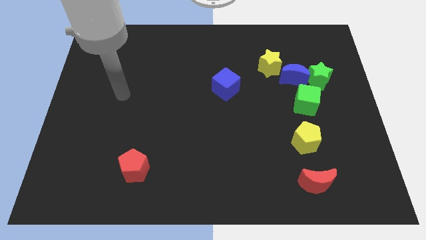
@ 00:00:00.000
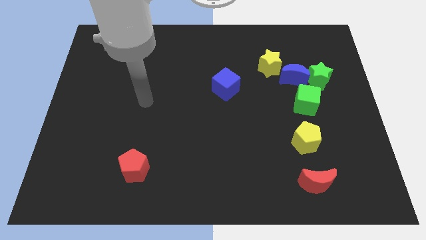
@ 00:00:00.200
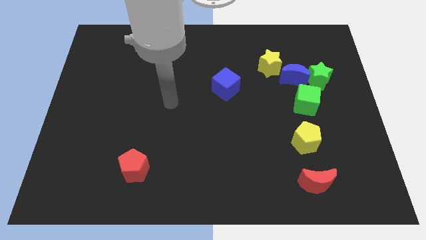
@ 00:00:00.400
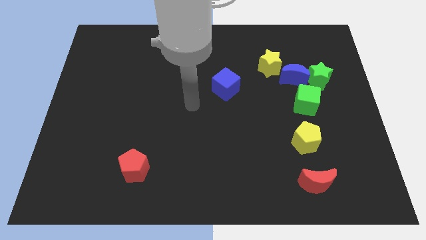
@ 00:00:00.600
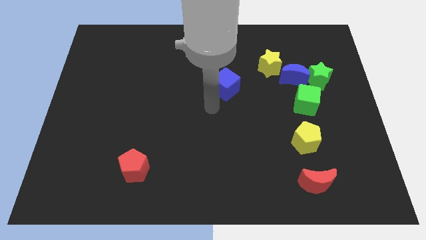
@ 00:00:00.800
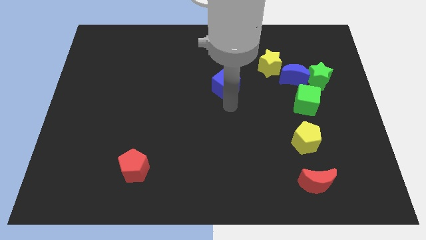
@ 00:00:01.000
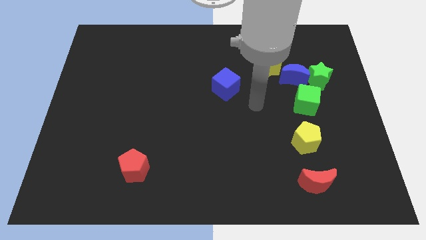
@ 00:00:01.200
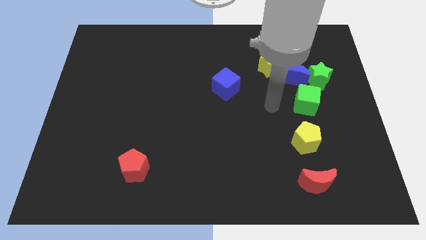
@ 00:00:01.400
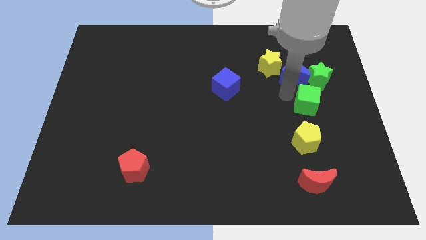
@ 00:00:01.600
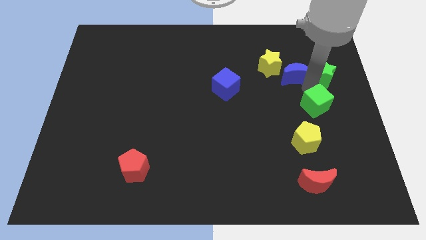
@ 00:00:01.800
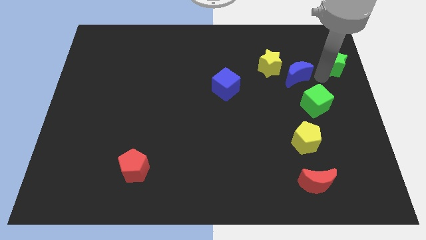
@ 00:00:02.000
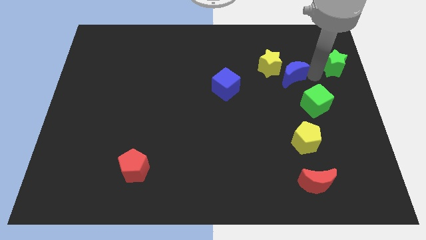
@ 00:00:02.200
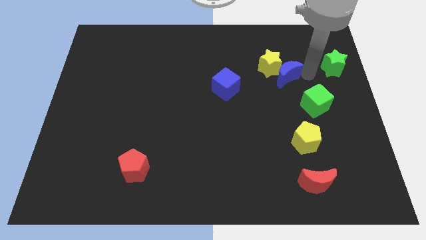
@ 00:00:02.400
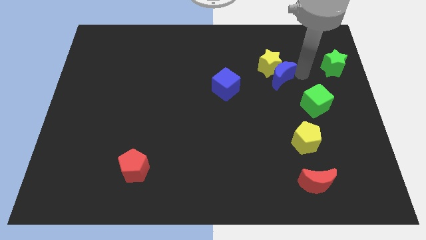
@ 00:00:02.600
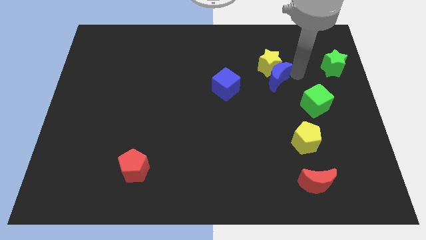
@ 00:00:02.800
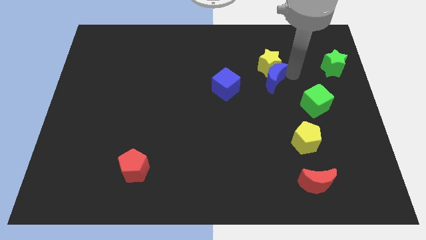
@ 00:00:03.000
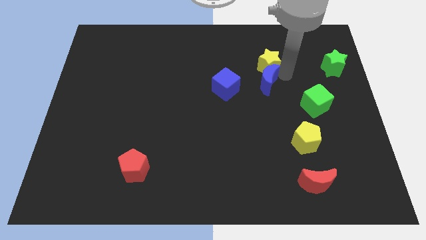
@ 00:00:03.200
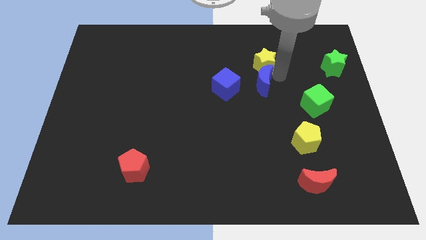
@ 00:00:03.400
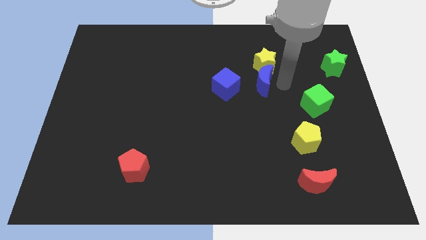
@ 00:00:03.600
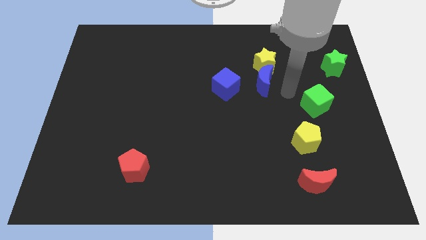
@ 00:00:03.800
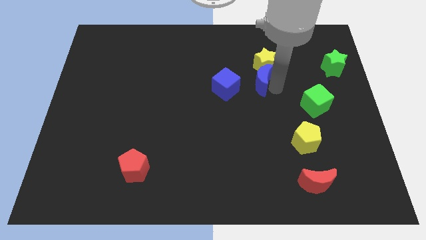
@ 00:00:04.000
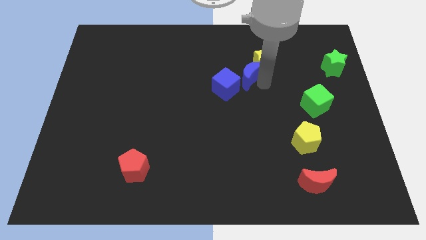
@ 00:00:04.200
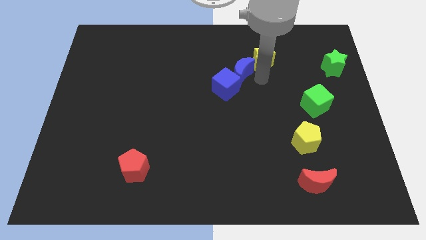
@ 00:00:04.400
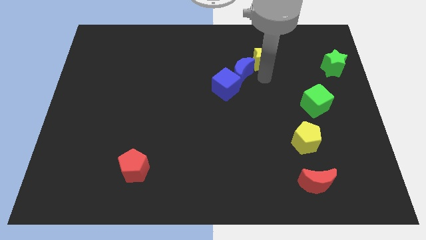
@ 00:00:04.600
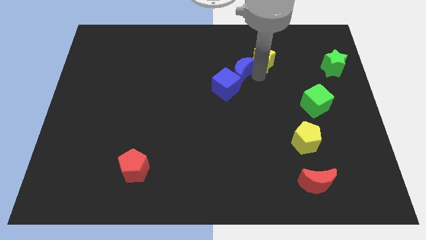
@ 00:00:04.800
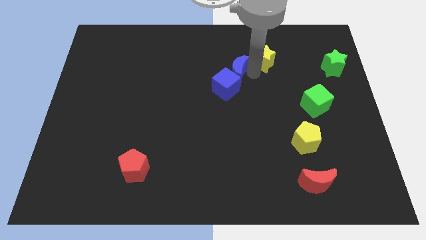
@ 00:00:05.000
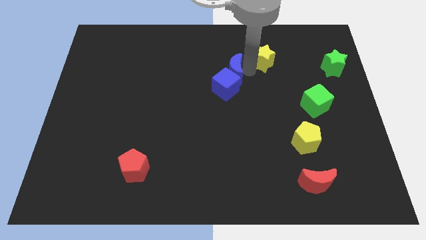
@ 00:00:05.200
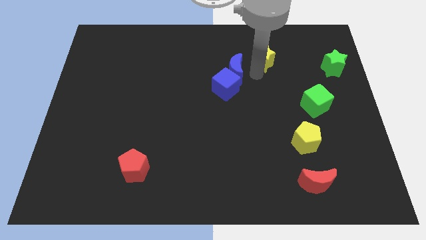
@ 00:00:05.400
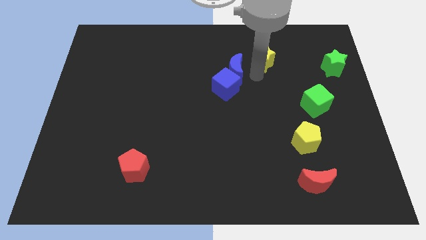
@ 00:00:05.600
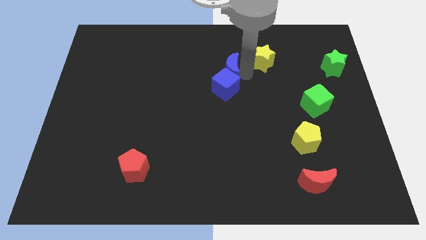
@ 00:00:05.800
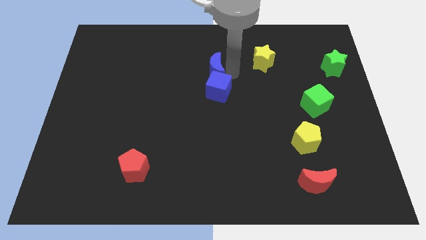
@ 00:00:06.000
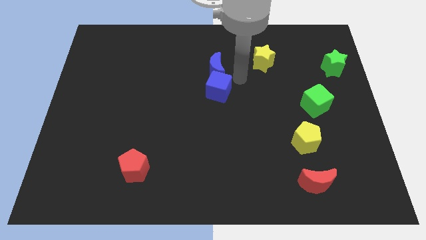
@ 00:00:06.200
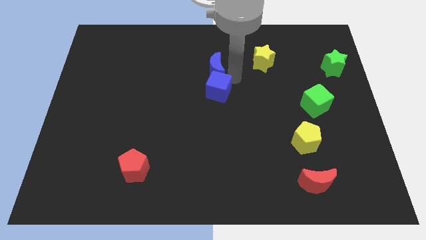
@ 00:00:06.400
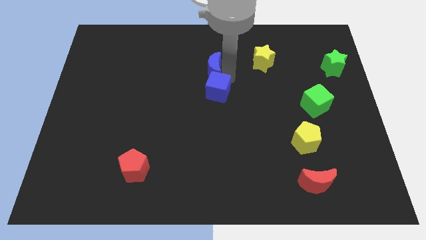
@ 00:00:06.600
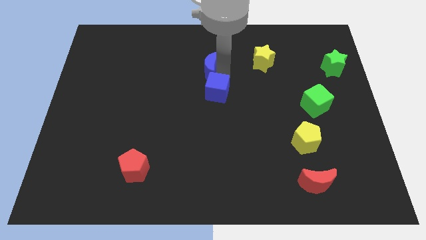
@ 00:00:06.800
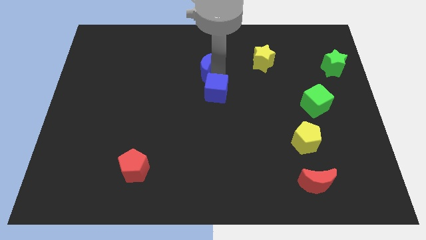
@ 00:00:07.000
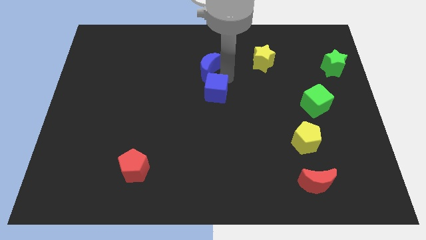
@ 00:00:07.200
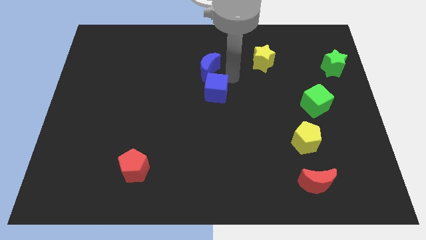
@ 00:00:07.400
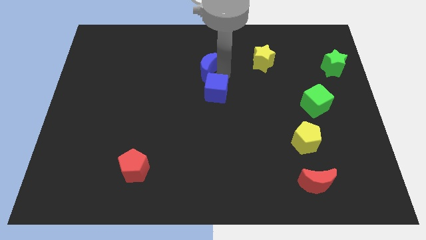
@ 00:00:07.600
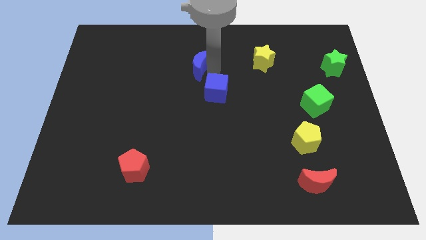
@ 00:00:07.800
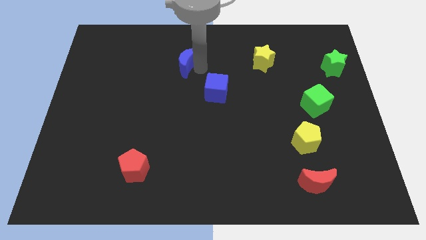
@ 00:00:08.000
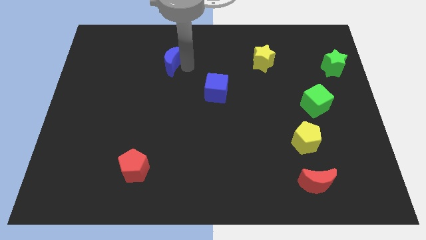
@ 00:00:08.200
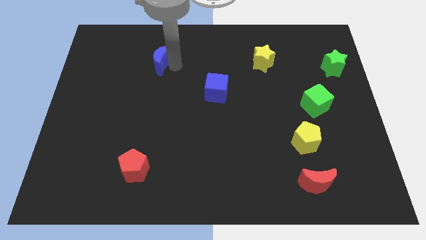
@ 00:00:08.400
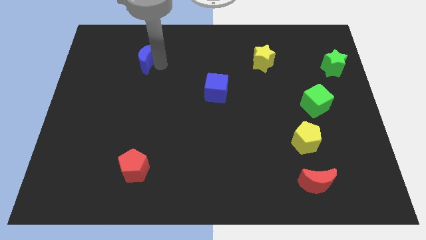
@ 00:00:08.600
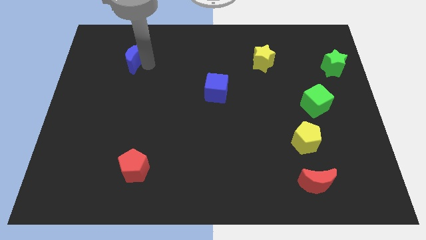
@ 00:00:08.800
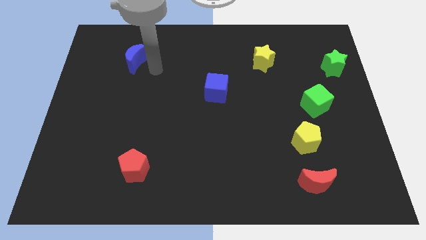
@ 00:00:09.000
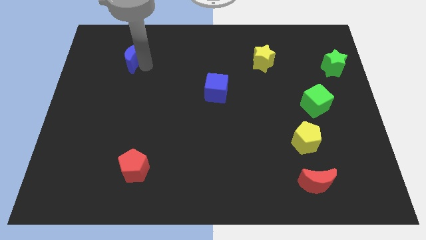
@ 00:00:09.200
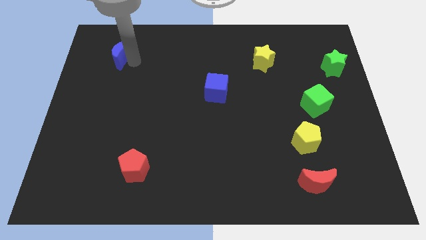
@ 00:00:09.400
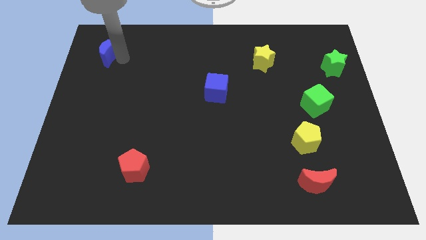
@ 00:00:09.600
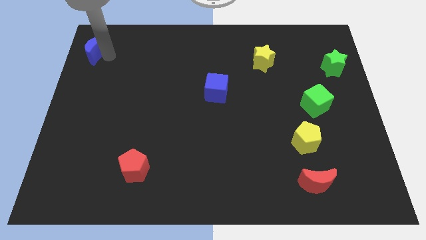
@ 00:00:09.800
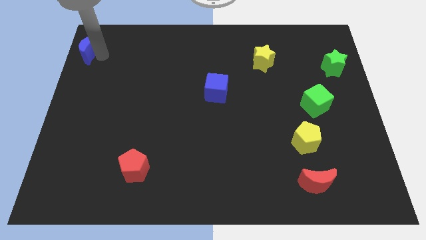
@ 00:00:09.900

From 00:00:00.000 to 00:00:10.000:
push the blue moon to the top left of the board

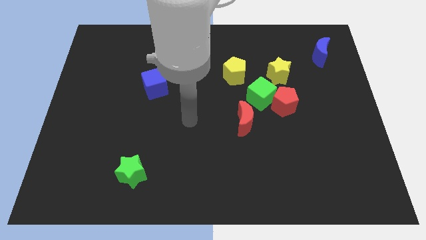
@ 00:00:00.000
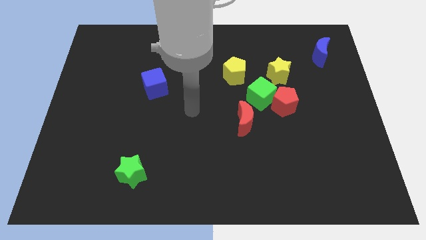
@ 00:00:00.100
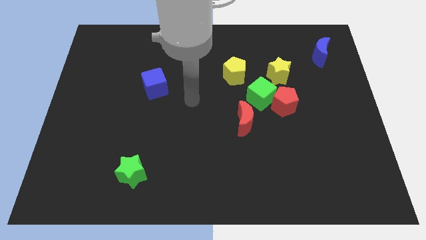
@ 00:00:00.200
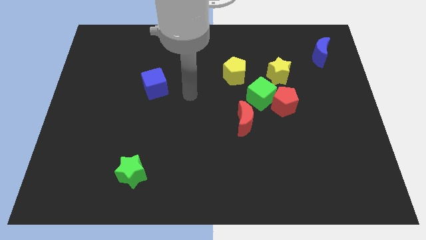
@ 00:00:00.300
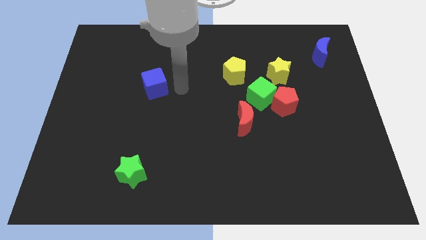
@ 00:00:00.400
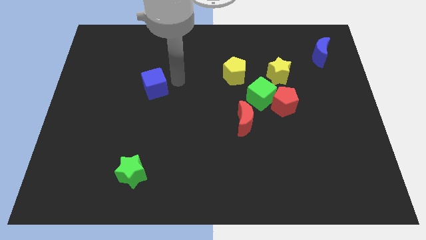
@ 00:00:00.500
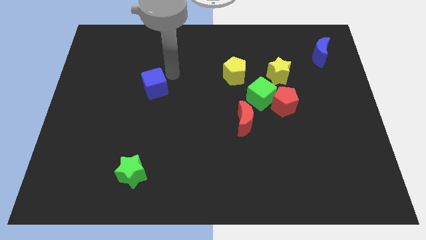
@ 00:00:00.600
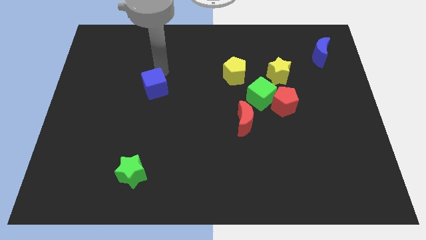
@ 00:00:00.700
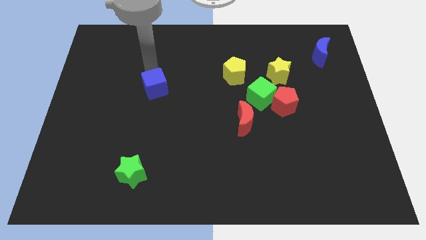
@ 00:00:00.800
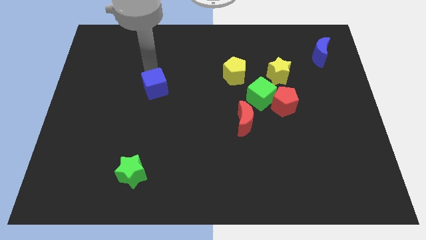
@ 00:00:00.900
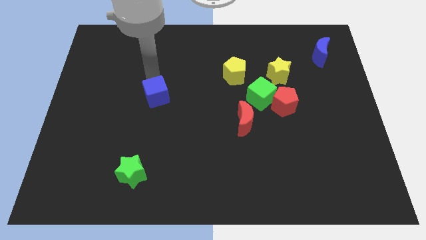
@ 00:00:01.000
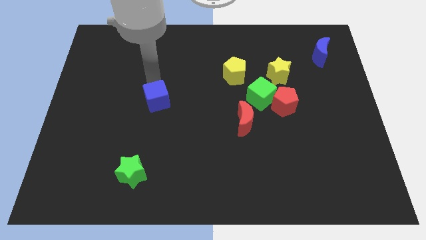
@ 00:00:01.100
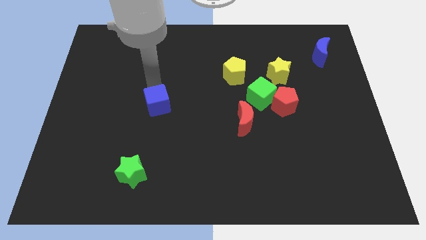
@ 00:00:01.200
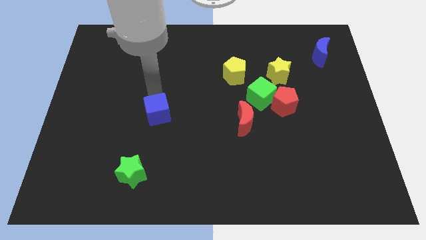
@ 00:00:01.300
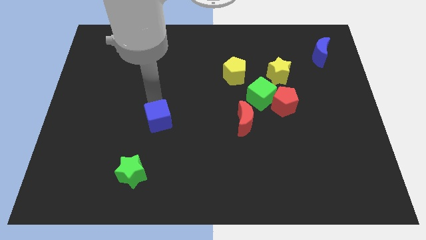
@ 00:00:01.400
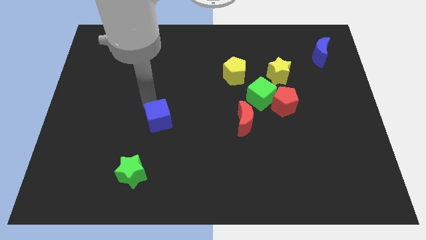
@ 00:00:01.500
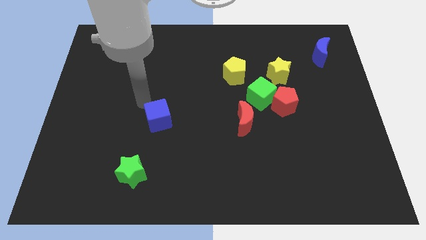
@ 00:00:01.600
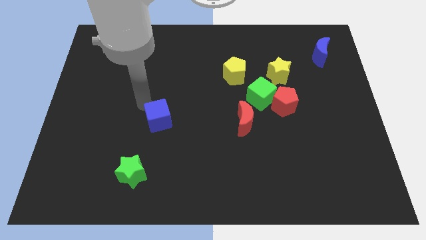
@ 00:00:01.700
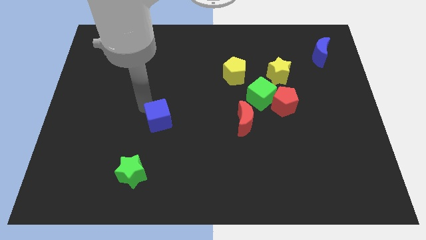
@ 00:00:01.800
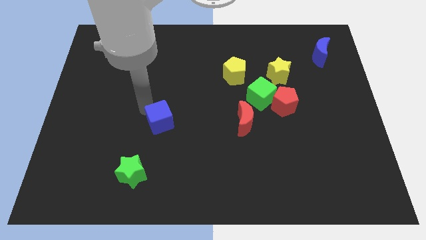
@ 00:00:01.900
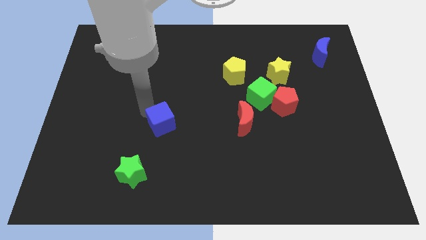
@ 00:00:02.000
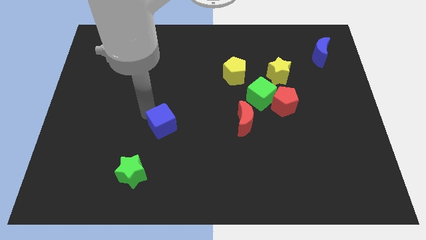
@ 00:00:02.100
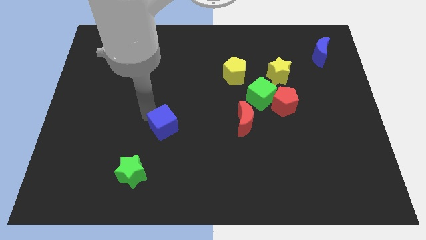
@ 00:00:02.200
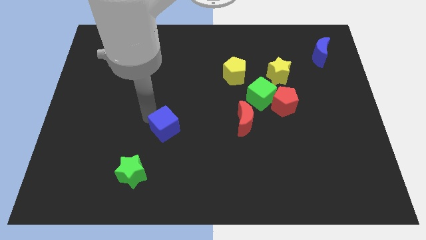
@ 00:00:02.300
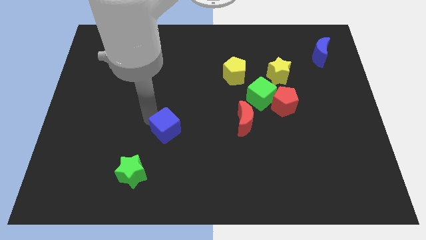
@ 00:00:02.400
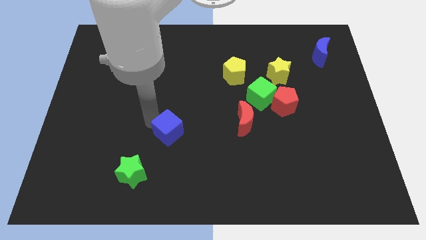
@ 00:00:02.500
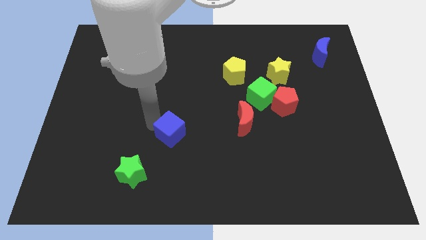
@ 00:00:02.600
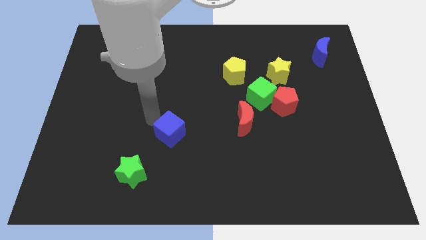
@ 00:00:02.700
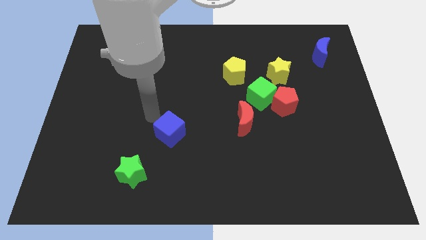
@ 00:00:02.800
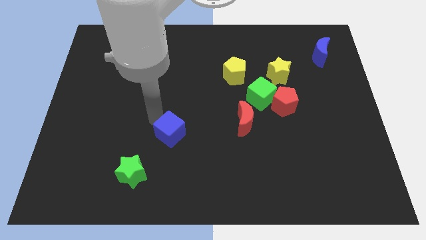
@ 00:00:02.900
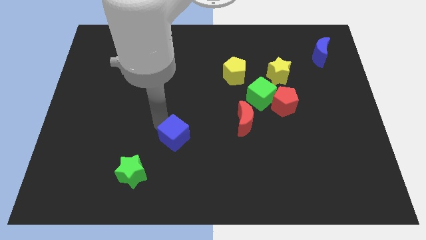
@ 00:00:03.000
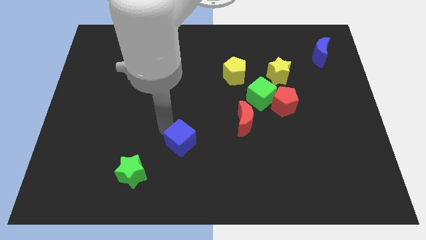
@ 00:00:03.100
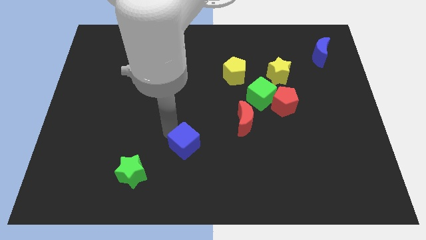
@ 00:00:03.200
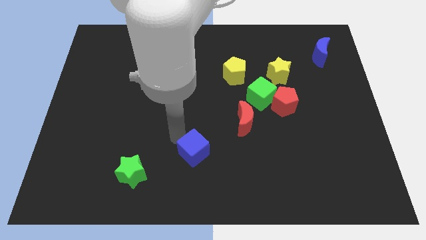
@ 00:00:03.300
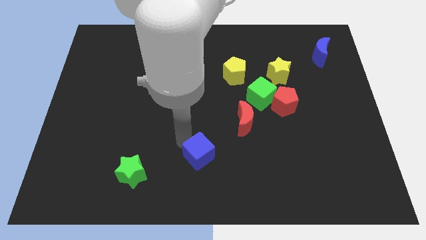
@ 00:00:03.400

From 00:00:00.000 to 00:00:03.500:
move the blue cube to the bottom
